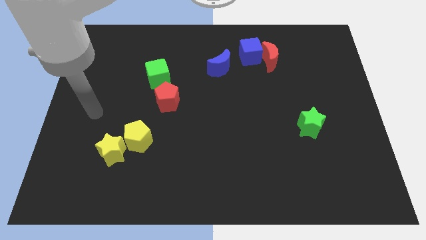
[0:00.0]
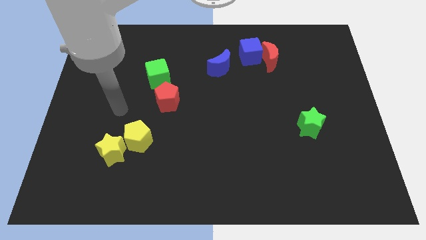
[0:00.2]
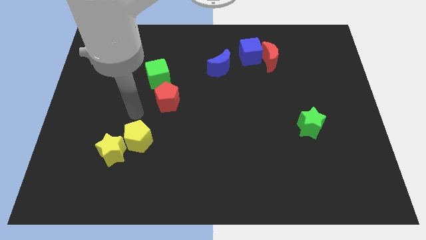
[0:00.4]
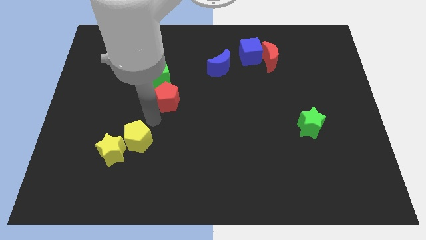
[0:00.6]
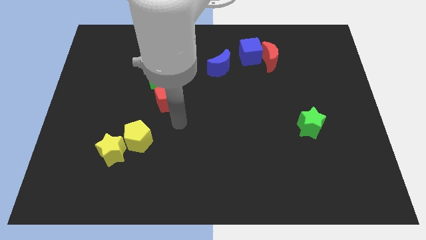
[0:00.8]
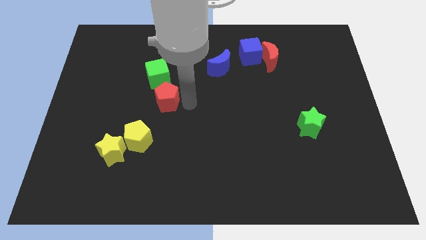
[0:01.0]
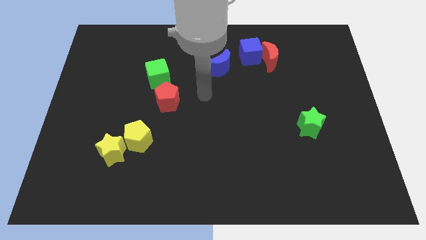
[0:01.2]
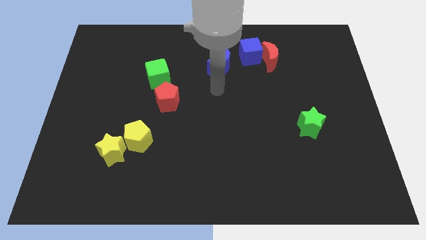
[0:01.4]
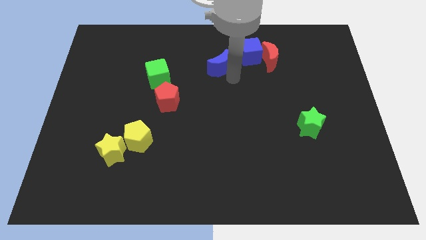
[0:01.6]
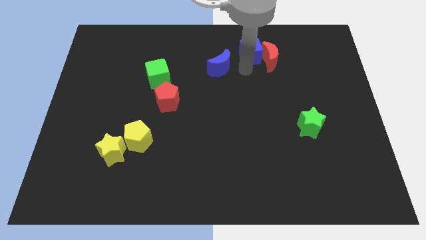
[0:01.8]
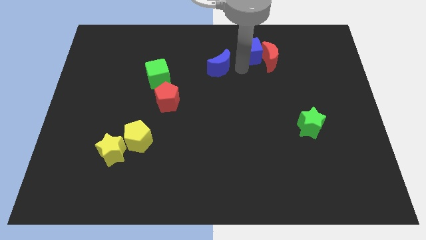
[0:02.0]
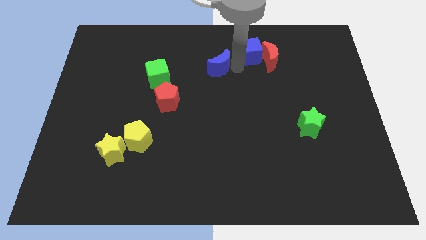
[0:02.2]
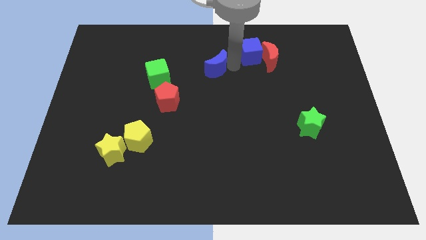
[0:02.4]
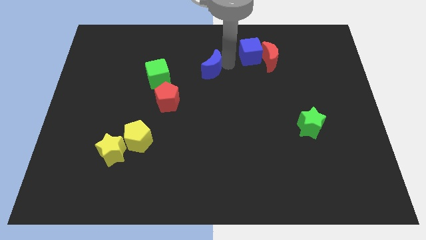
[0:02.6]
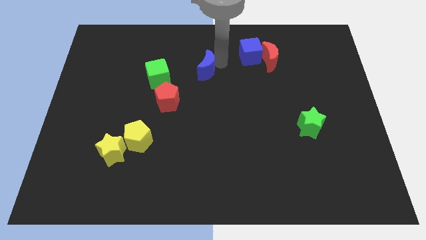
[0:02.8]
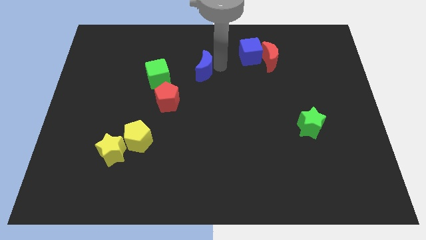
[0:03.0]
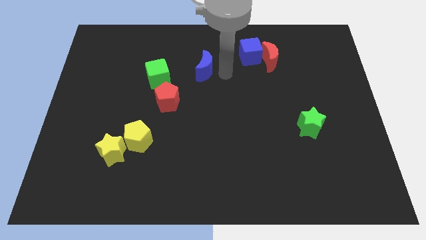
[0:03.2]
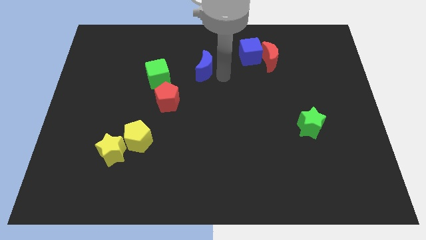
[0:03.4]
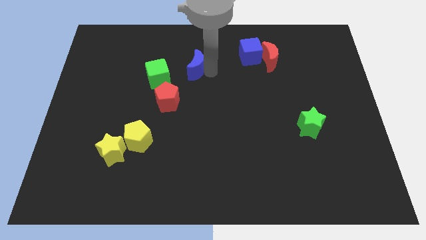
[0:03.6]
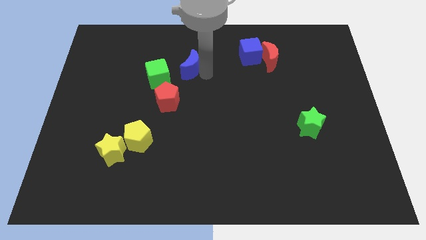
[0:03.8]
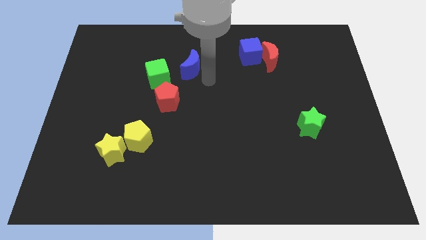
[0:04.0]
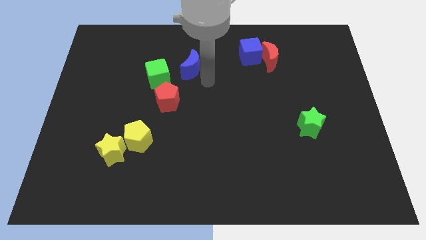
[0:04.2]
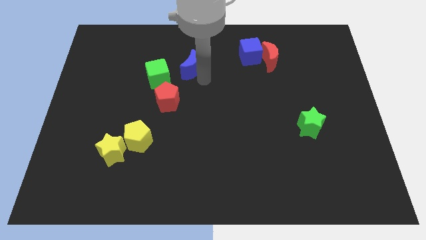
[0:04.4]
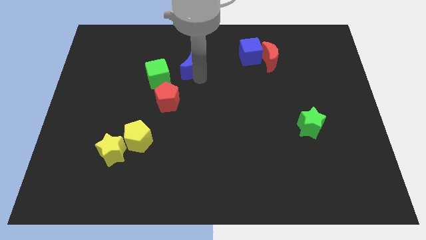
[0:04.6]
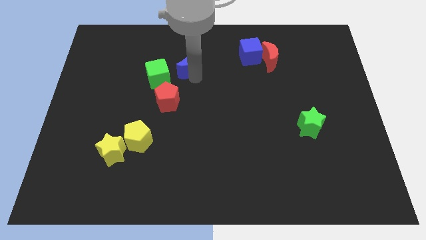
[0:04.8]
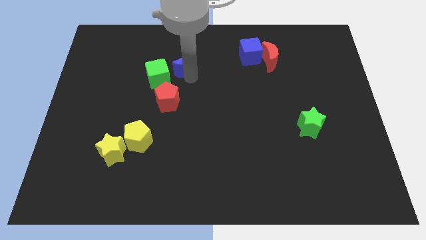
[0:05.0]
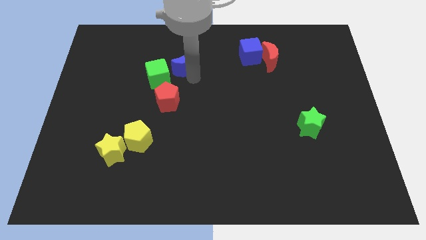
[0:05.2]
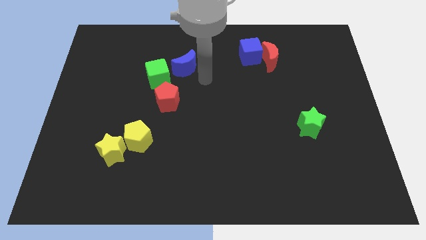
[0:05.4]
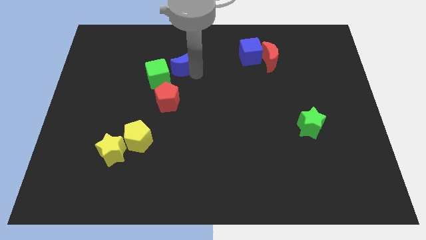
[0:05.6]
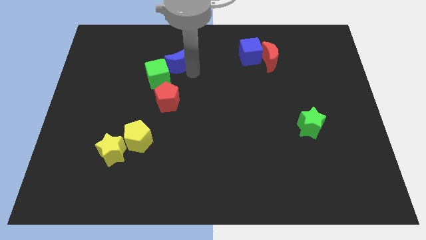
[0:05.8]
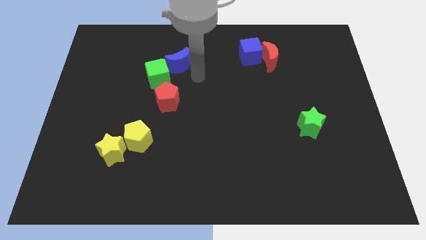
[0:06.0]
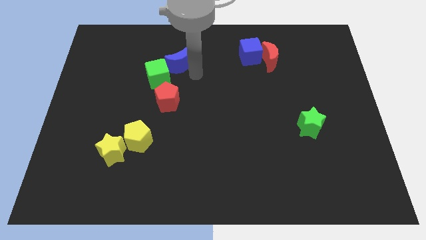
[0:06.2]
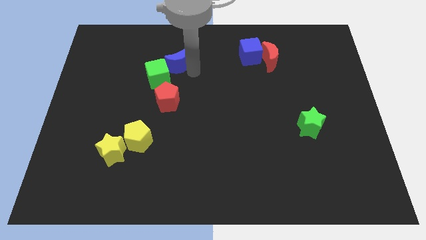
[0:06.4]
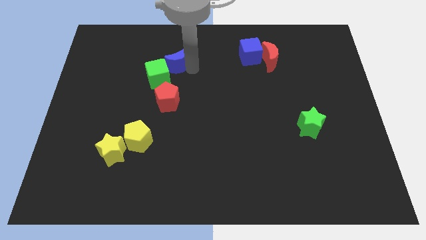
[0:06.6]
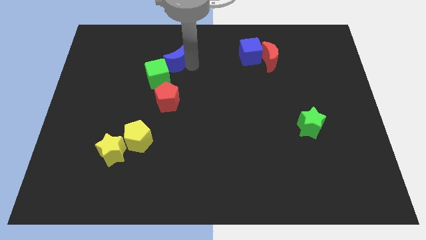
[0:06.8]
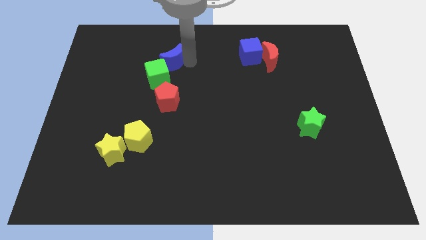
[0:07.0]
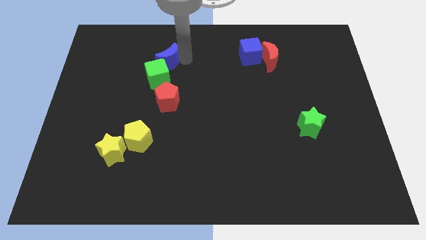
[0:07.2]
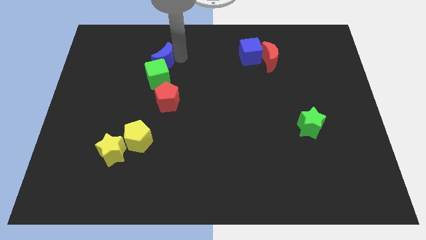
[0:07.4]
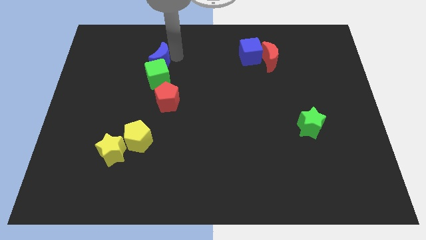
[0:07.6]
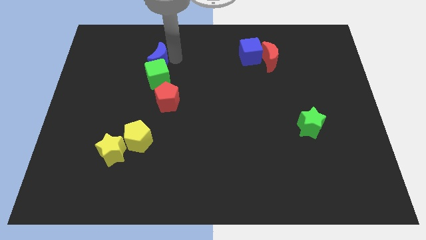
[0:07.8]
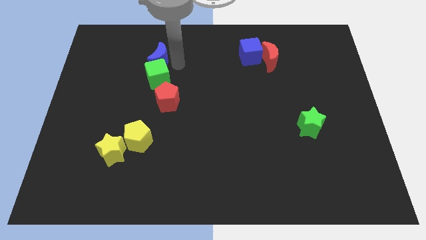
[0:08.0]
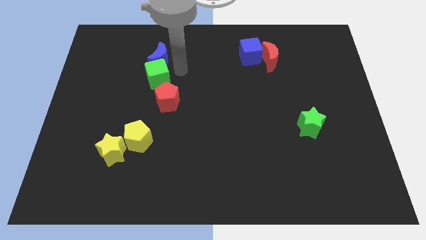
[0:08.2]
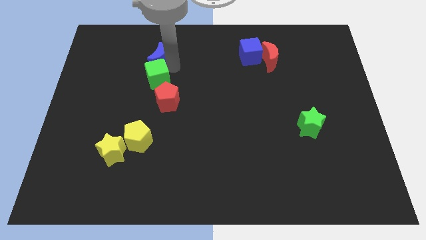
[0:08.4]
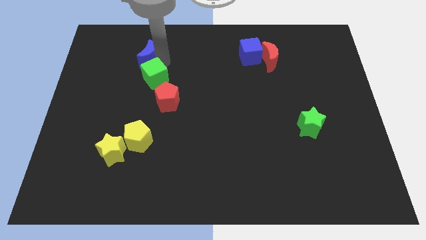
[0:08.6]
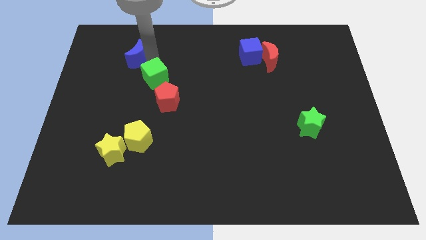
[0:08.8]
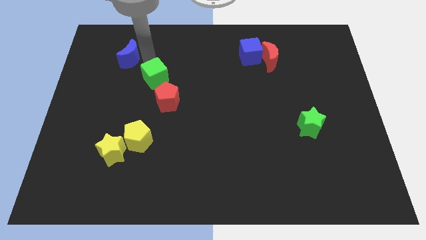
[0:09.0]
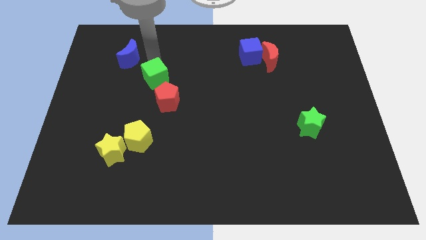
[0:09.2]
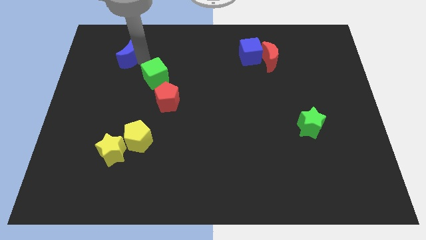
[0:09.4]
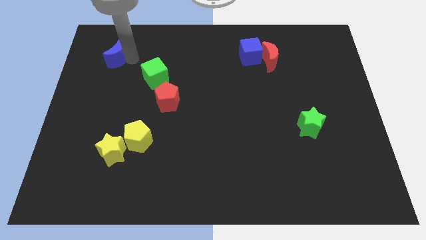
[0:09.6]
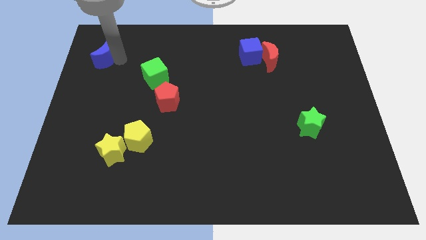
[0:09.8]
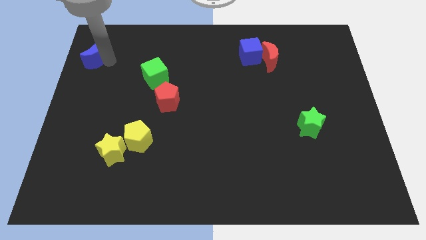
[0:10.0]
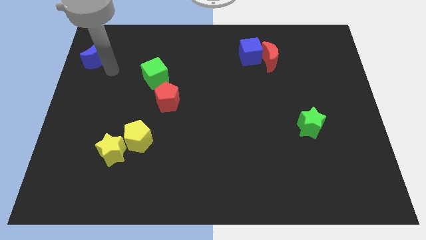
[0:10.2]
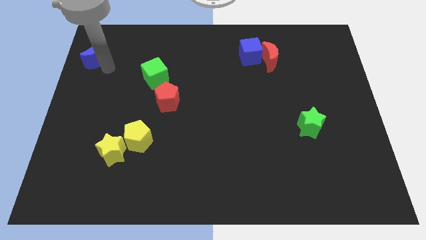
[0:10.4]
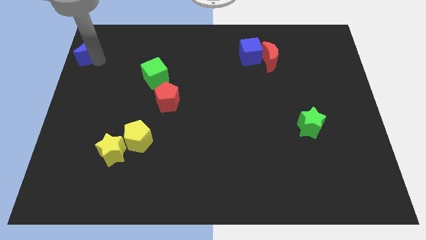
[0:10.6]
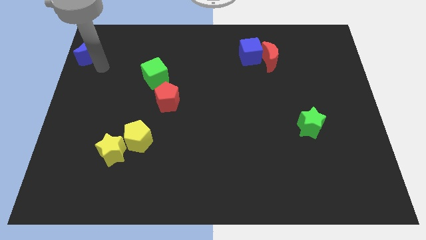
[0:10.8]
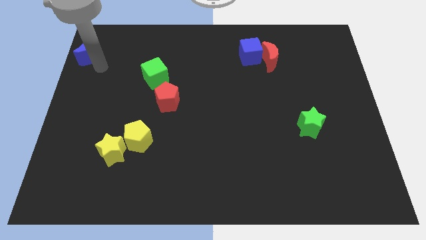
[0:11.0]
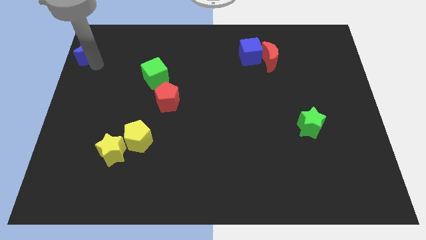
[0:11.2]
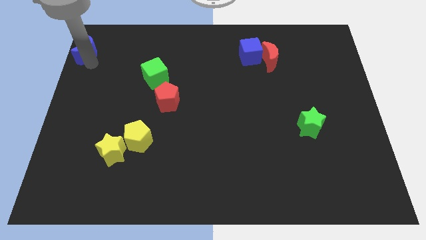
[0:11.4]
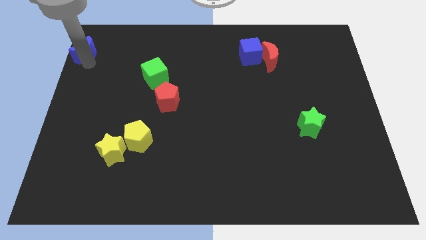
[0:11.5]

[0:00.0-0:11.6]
put the blue moon to the top left of the board
